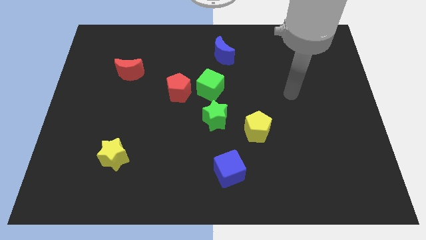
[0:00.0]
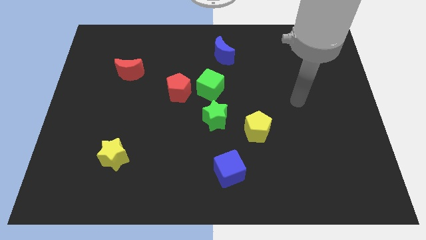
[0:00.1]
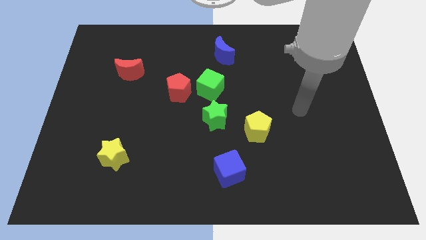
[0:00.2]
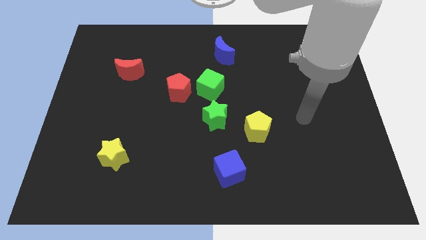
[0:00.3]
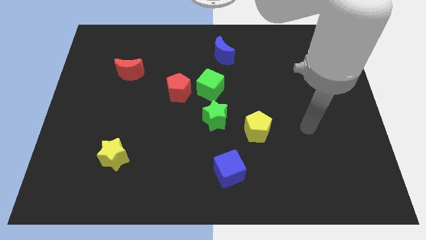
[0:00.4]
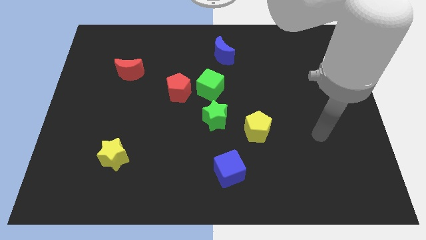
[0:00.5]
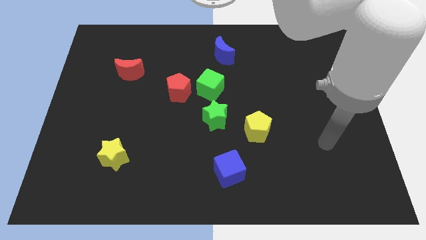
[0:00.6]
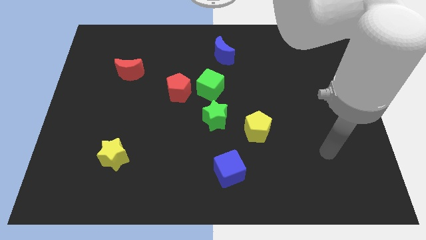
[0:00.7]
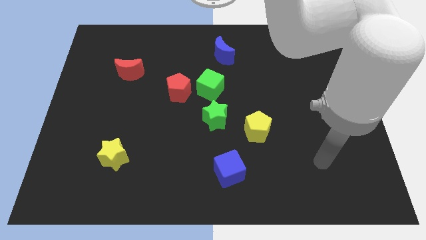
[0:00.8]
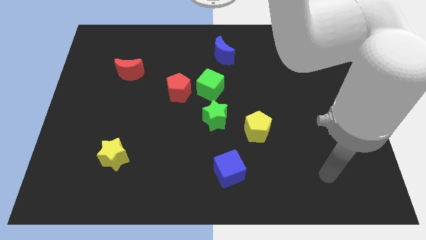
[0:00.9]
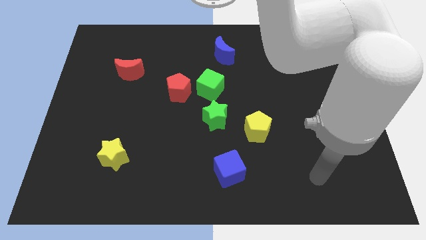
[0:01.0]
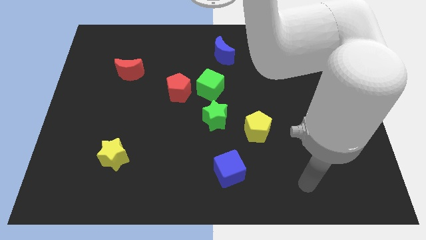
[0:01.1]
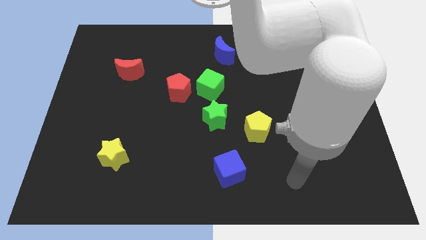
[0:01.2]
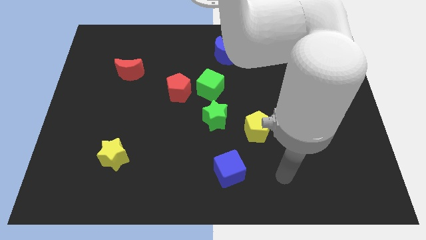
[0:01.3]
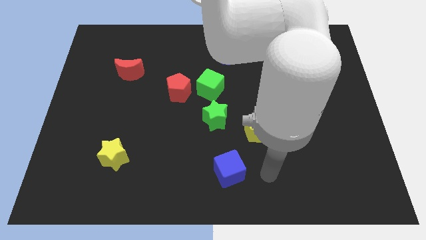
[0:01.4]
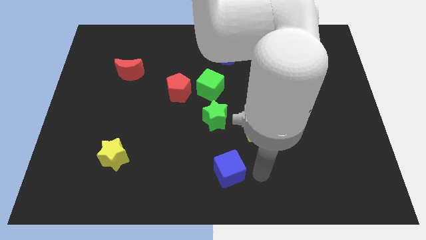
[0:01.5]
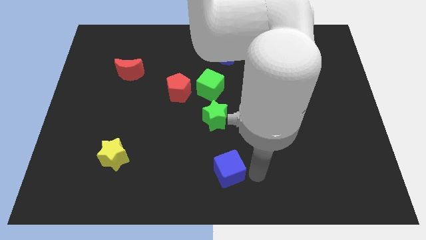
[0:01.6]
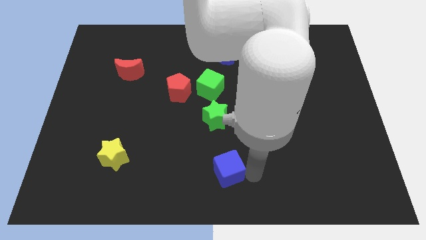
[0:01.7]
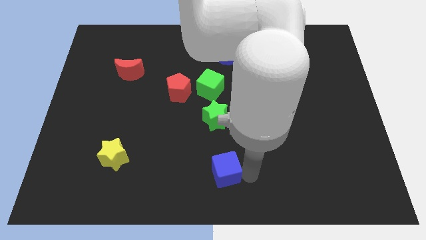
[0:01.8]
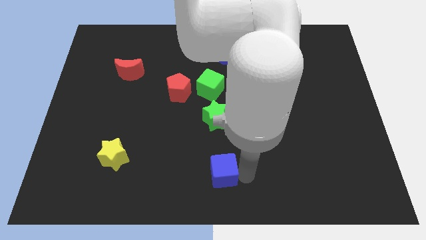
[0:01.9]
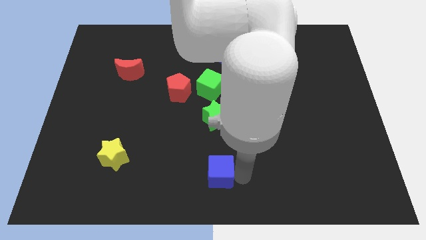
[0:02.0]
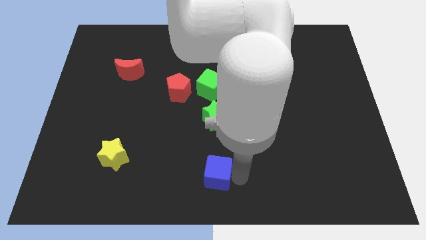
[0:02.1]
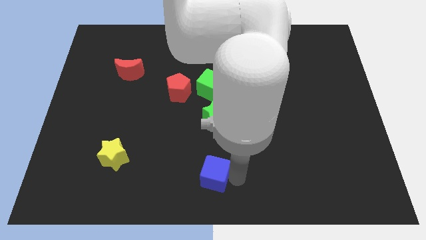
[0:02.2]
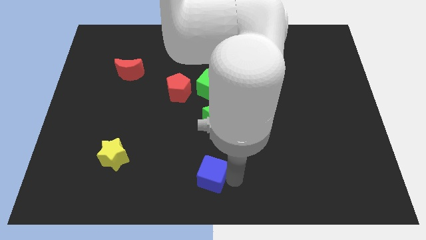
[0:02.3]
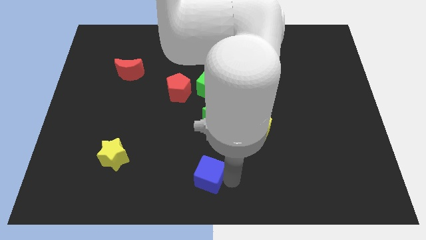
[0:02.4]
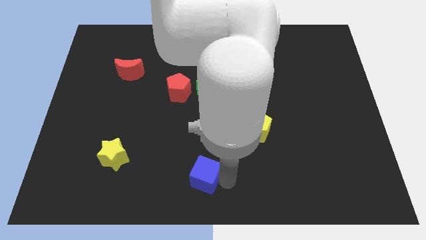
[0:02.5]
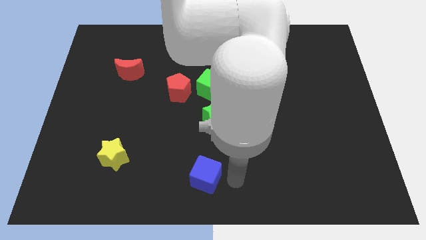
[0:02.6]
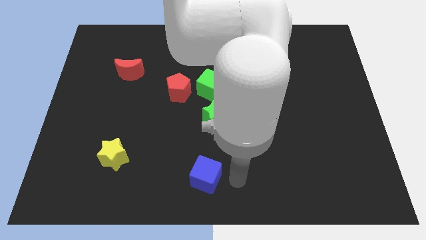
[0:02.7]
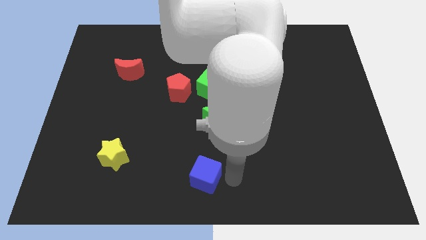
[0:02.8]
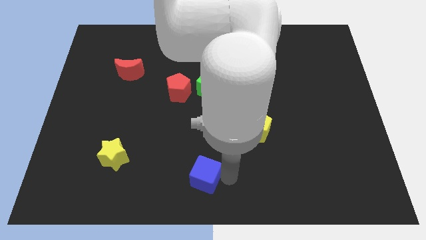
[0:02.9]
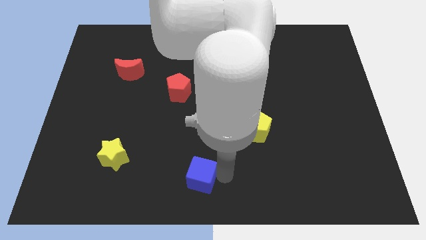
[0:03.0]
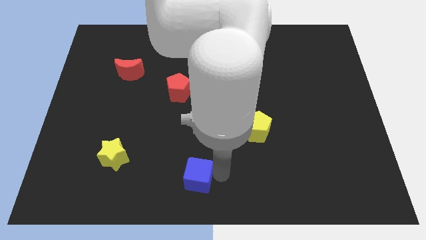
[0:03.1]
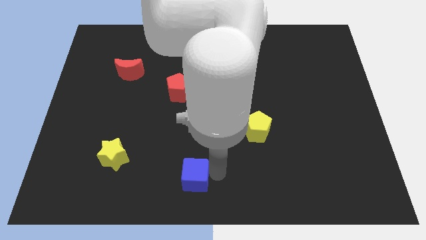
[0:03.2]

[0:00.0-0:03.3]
push the blue cube a little bit to the left

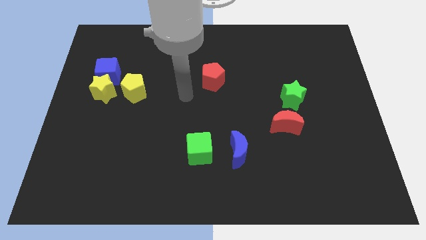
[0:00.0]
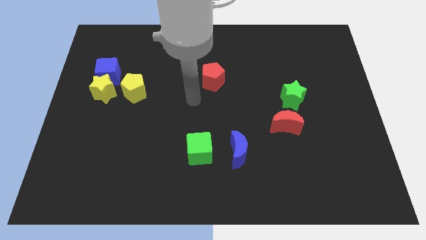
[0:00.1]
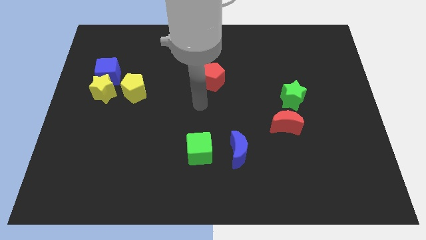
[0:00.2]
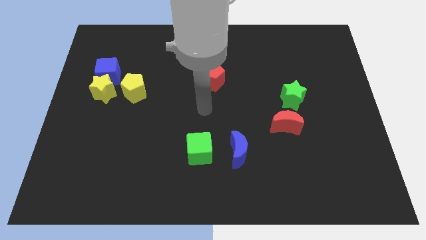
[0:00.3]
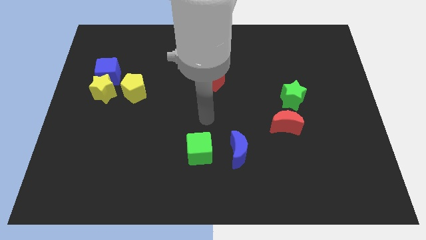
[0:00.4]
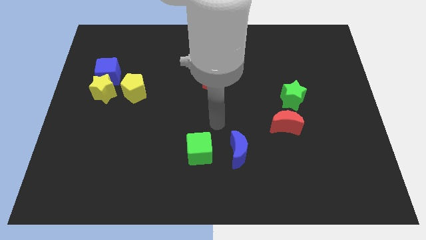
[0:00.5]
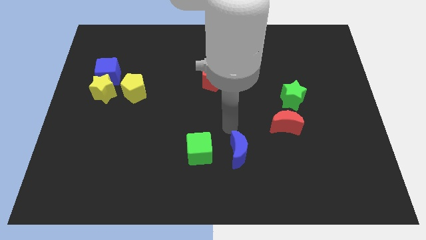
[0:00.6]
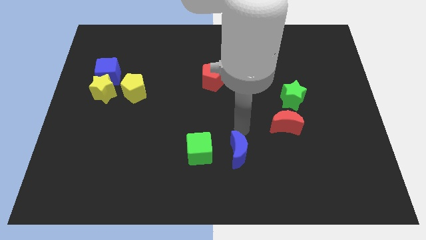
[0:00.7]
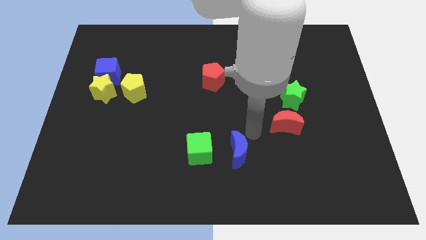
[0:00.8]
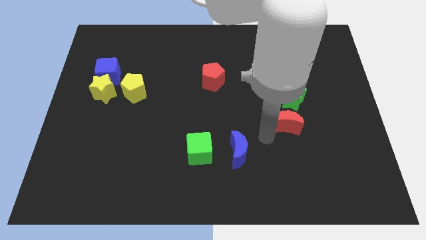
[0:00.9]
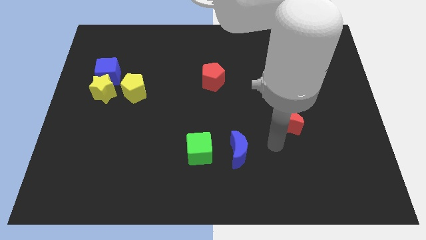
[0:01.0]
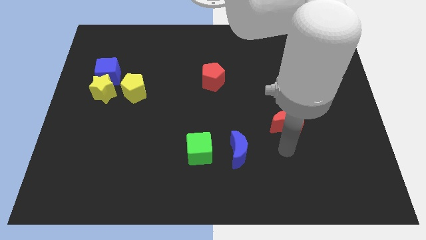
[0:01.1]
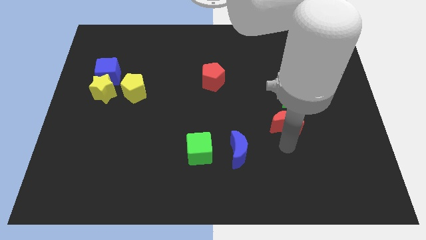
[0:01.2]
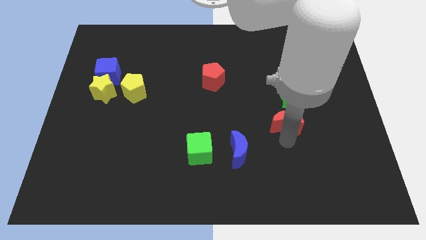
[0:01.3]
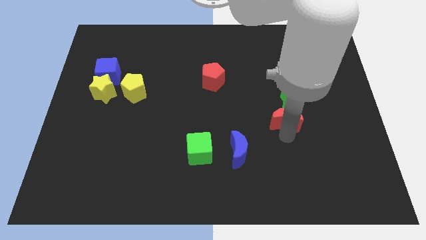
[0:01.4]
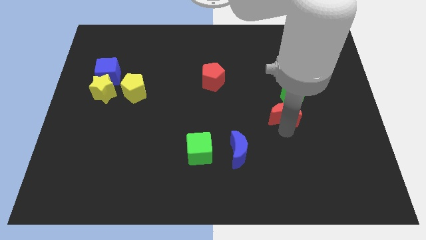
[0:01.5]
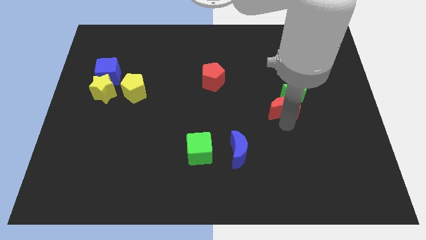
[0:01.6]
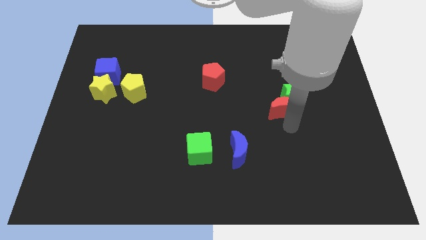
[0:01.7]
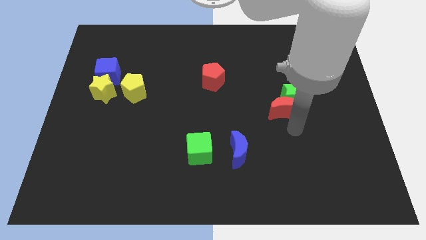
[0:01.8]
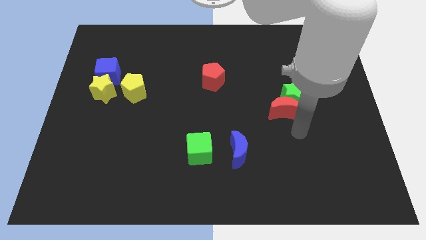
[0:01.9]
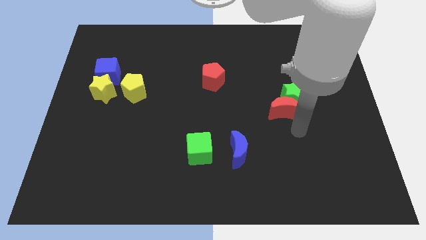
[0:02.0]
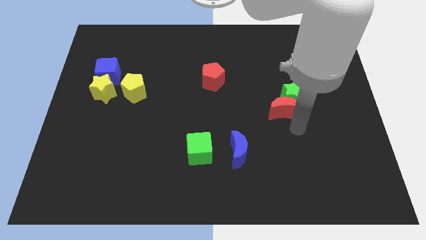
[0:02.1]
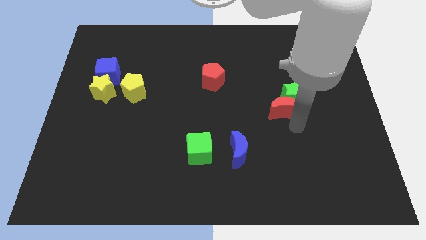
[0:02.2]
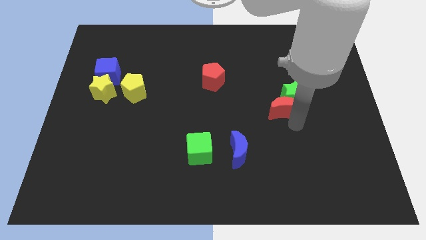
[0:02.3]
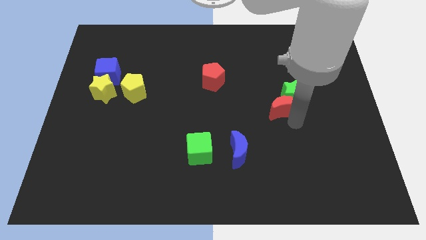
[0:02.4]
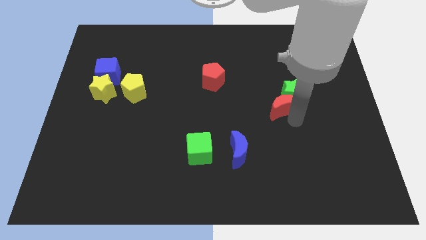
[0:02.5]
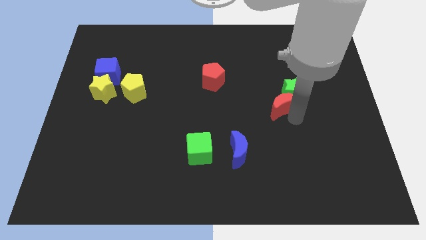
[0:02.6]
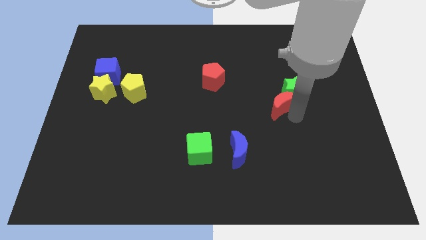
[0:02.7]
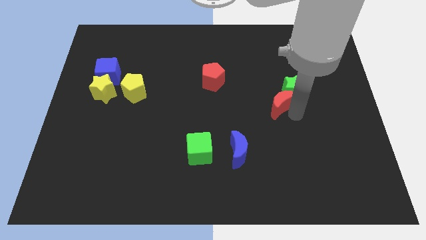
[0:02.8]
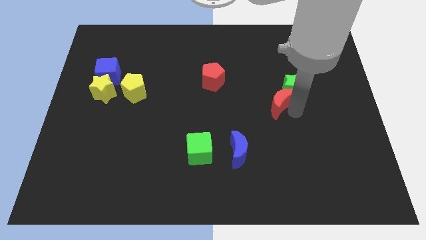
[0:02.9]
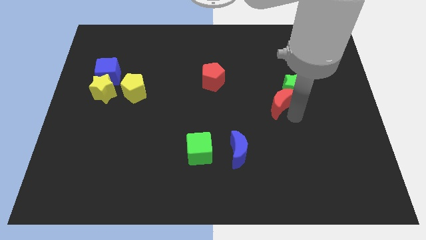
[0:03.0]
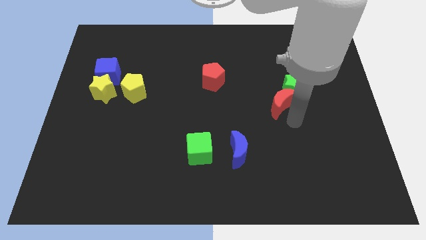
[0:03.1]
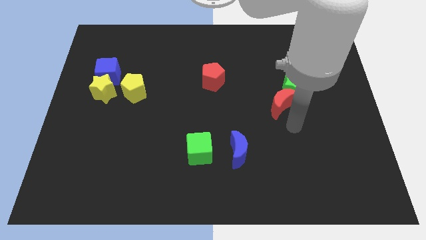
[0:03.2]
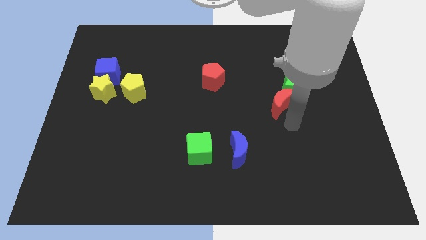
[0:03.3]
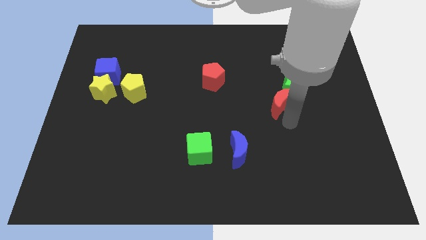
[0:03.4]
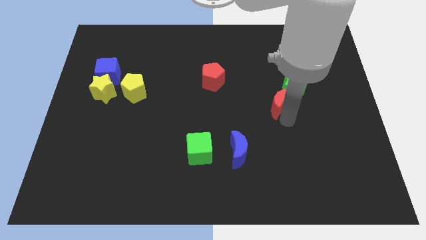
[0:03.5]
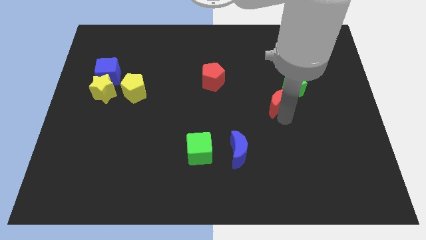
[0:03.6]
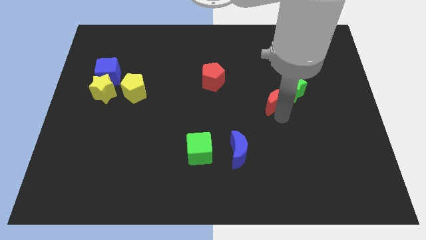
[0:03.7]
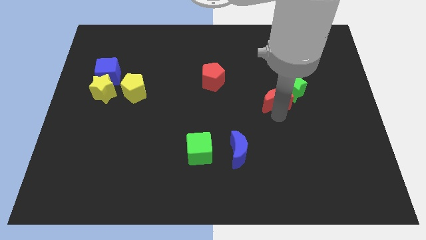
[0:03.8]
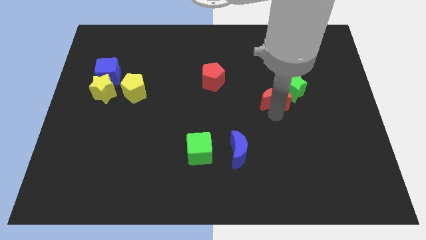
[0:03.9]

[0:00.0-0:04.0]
push the red moon a little upwards

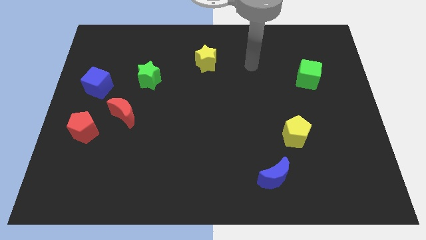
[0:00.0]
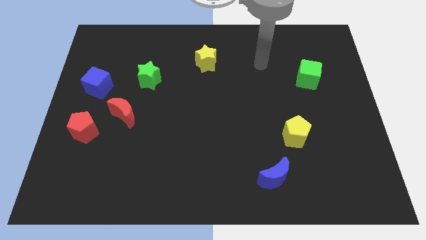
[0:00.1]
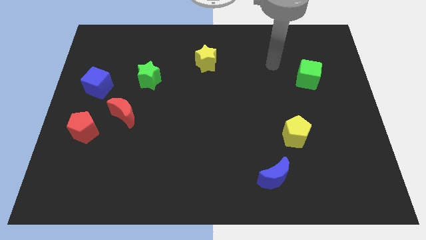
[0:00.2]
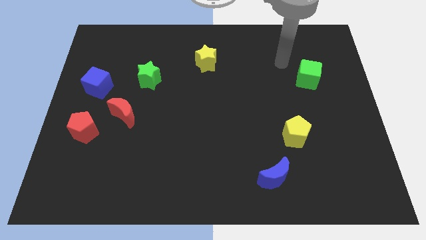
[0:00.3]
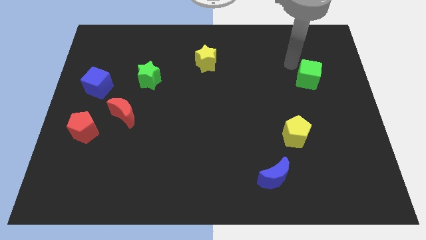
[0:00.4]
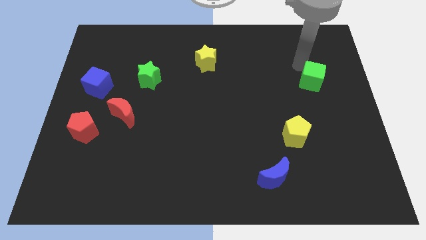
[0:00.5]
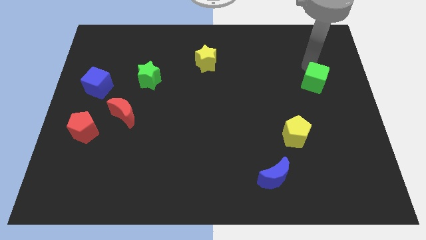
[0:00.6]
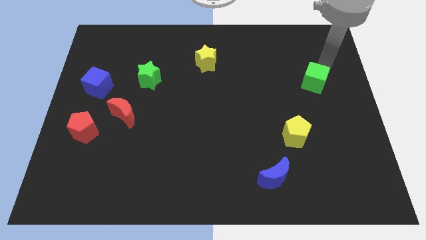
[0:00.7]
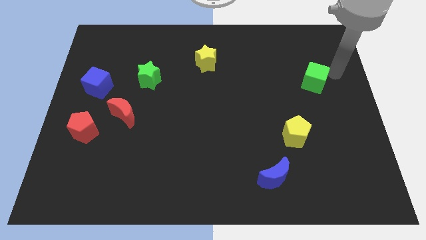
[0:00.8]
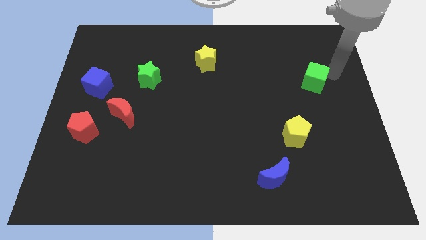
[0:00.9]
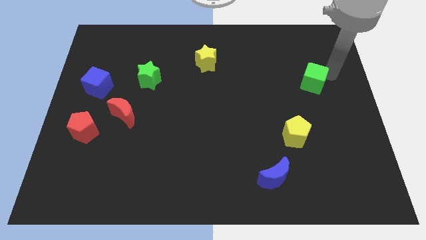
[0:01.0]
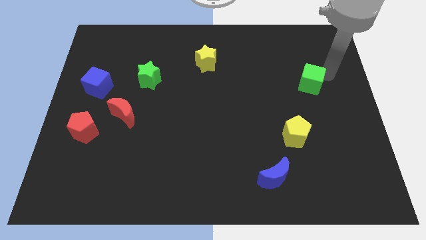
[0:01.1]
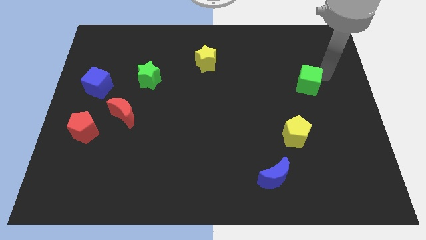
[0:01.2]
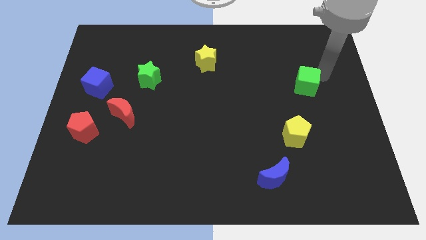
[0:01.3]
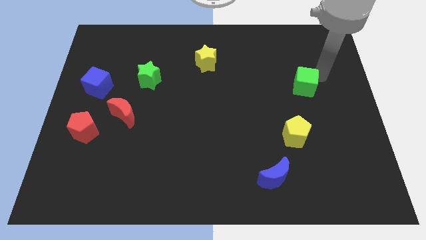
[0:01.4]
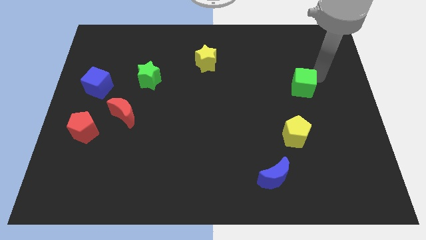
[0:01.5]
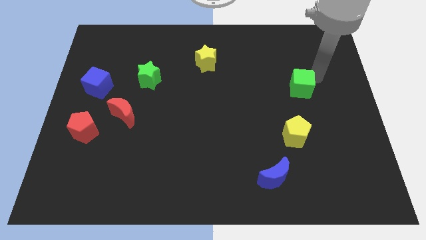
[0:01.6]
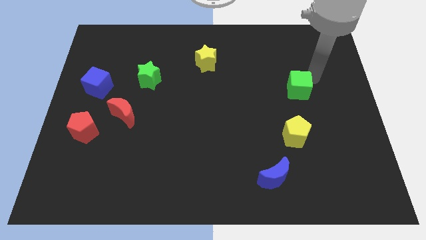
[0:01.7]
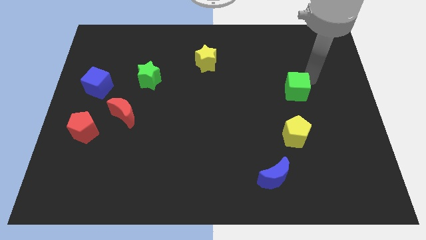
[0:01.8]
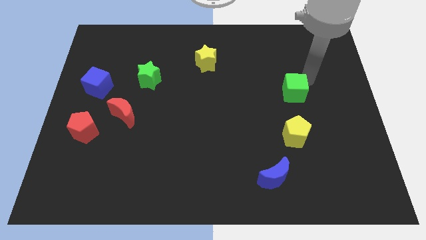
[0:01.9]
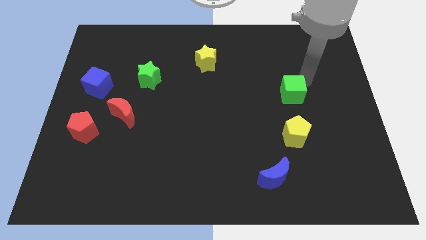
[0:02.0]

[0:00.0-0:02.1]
move the green cube diagonally down and to the left slightly
